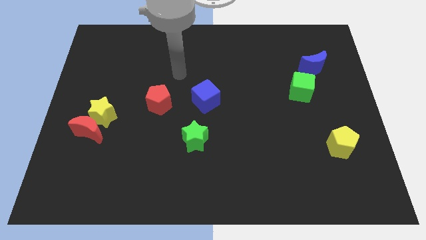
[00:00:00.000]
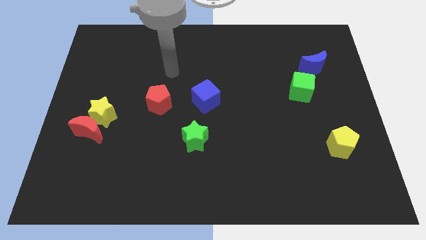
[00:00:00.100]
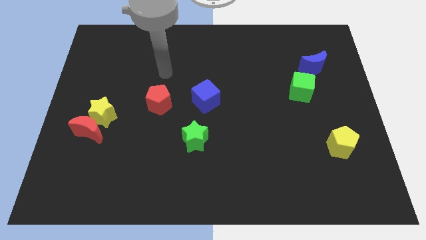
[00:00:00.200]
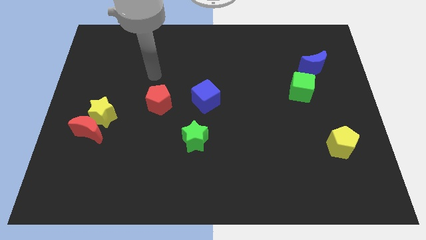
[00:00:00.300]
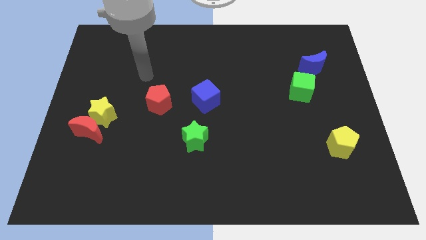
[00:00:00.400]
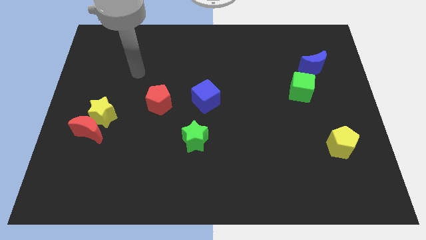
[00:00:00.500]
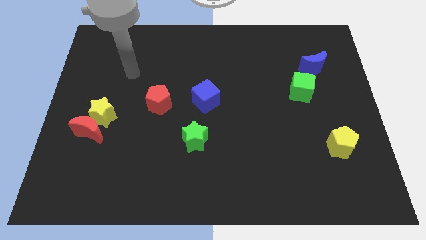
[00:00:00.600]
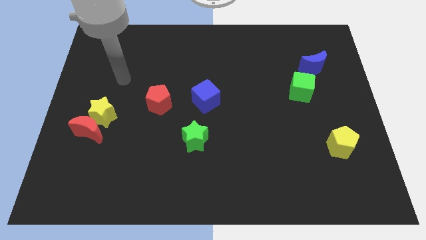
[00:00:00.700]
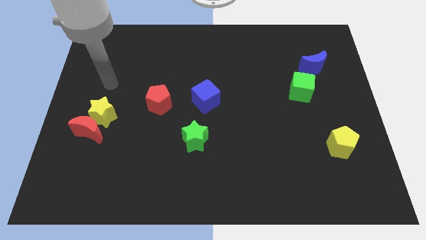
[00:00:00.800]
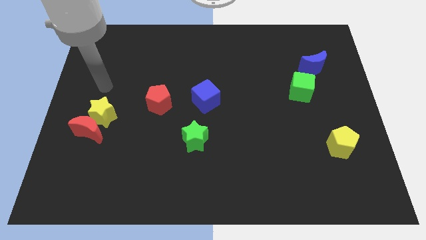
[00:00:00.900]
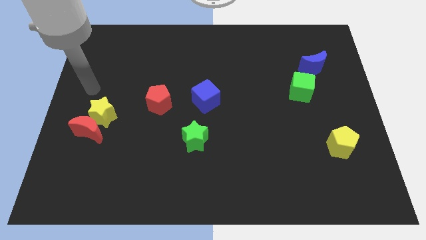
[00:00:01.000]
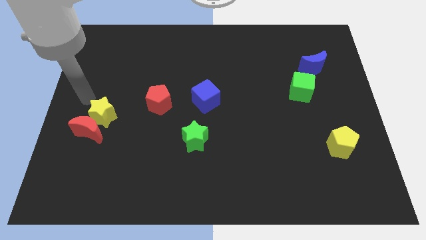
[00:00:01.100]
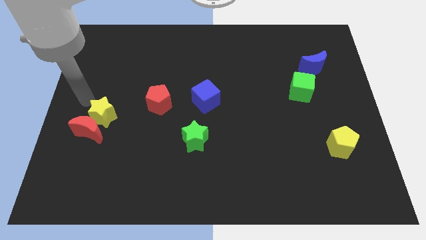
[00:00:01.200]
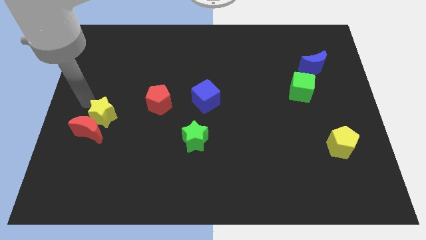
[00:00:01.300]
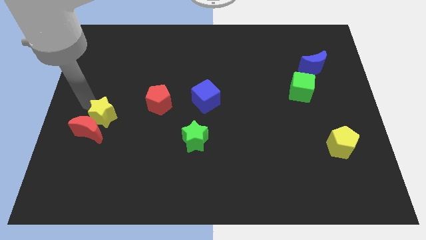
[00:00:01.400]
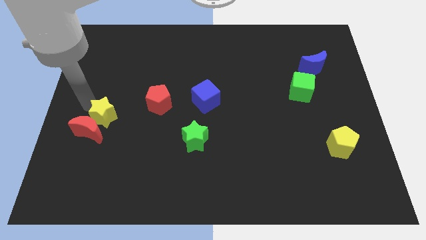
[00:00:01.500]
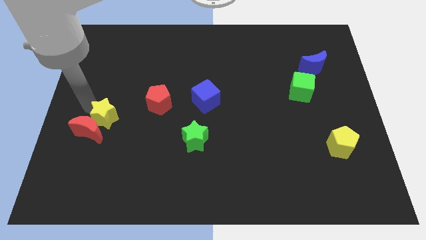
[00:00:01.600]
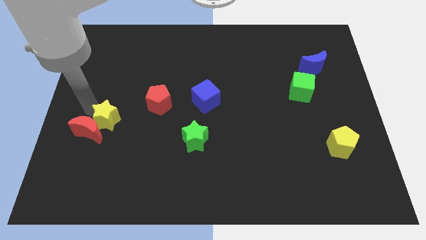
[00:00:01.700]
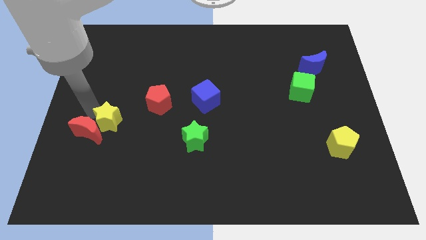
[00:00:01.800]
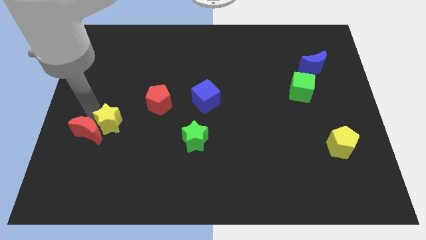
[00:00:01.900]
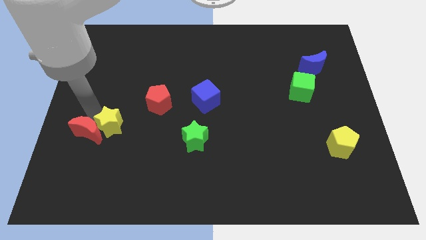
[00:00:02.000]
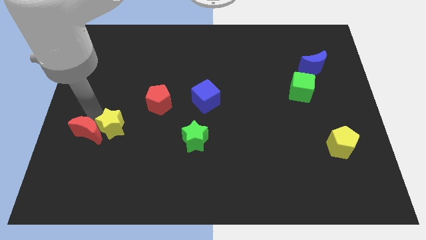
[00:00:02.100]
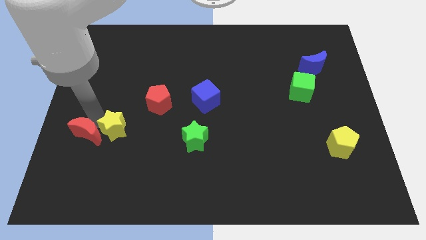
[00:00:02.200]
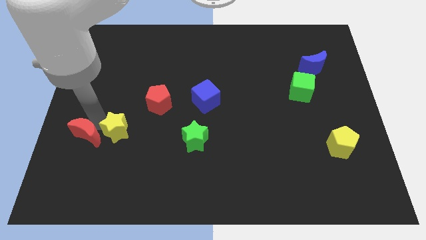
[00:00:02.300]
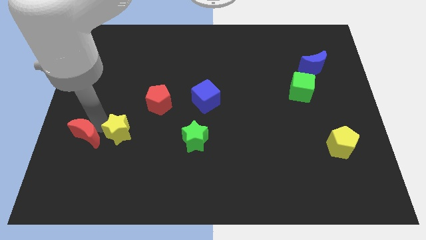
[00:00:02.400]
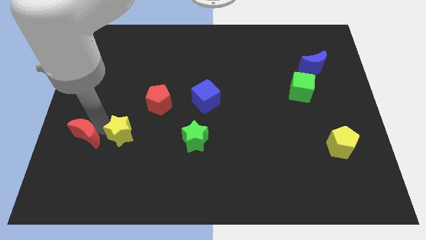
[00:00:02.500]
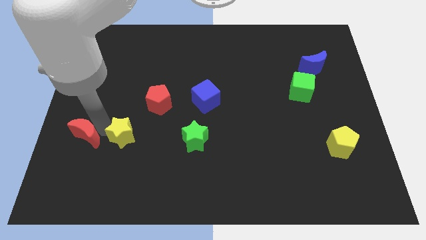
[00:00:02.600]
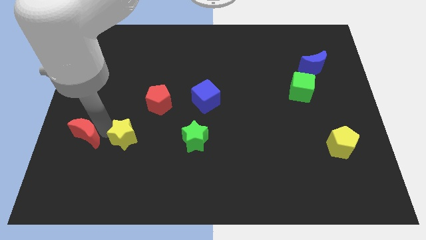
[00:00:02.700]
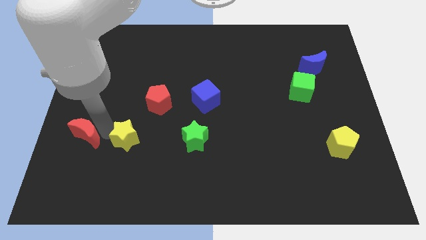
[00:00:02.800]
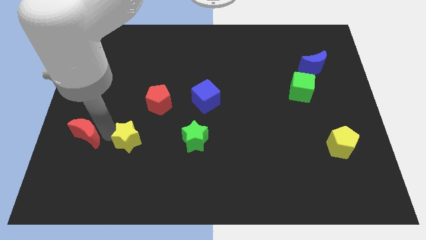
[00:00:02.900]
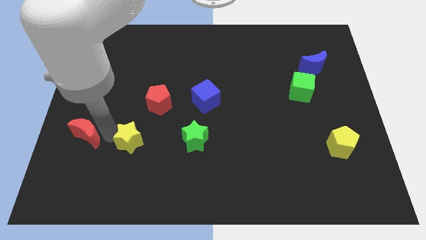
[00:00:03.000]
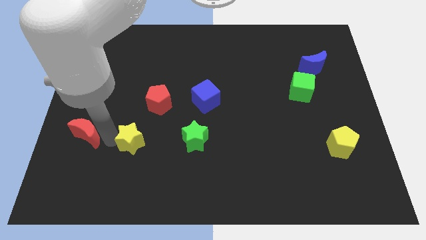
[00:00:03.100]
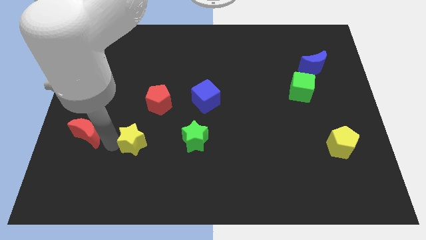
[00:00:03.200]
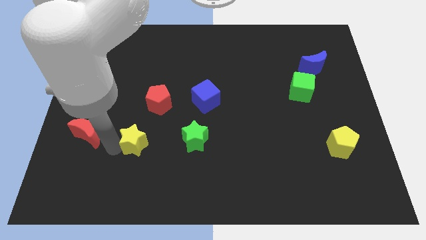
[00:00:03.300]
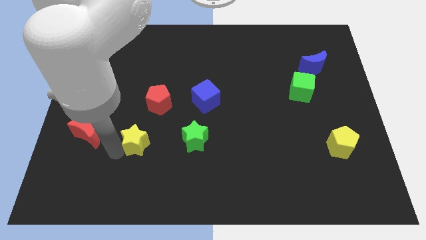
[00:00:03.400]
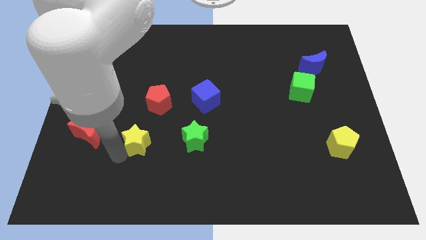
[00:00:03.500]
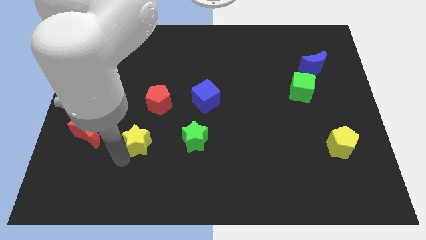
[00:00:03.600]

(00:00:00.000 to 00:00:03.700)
push the yellow star to the right slightly

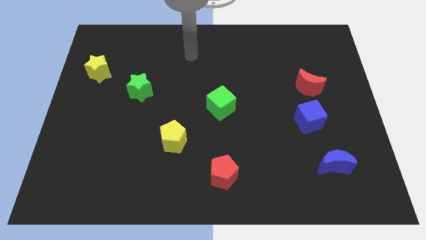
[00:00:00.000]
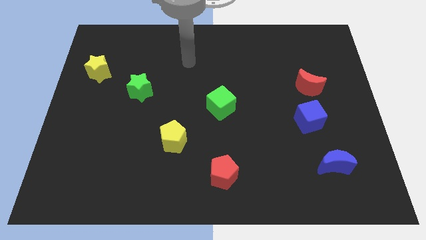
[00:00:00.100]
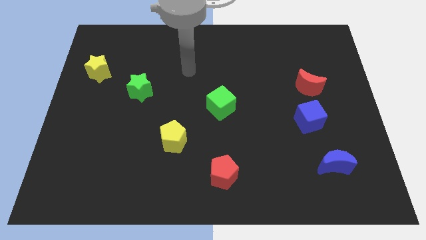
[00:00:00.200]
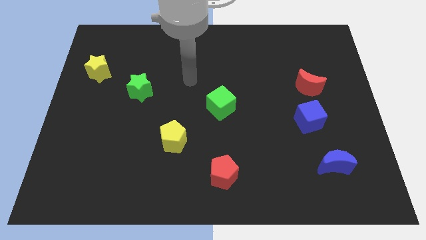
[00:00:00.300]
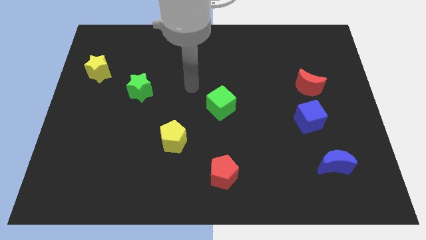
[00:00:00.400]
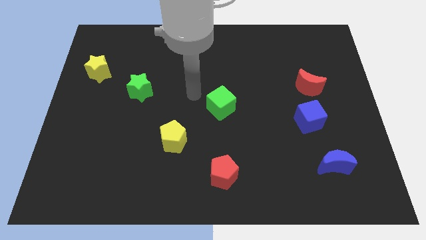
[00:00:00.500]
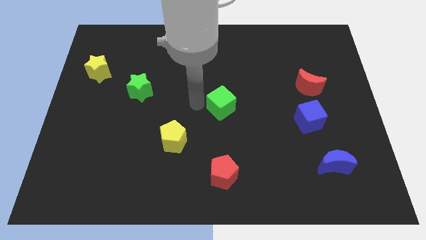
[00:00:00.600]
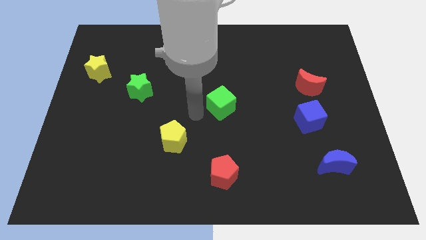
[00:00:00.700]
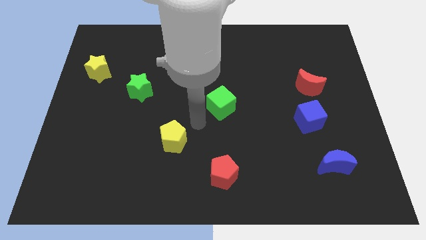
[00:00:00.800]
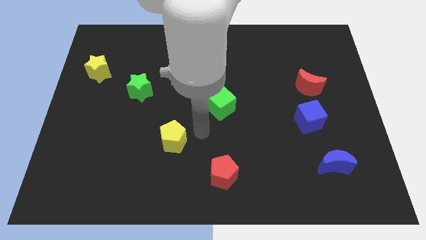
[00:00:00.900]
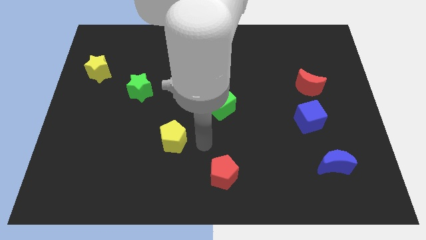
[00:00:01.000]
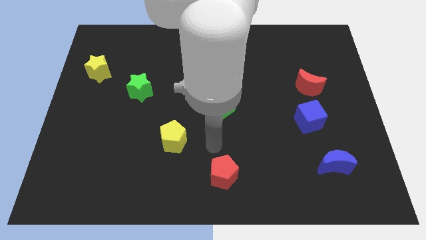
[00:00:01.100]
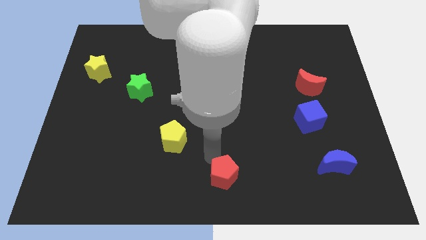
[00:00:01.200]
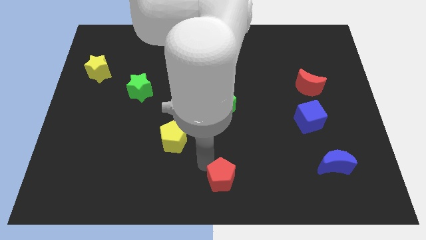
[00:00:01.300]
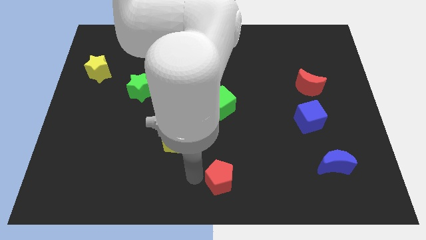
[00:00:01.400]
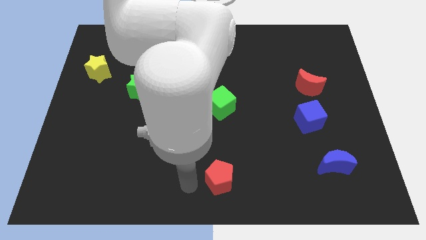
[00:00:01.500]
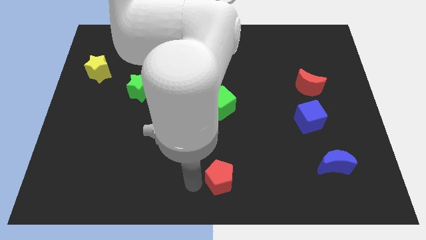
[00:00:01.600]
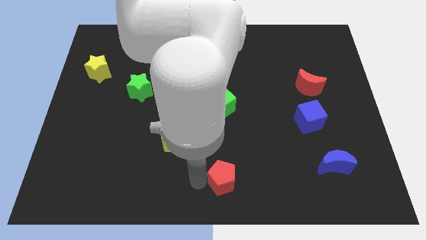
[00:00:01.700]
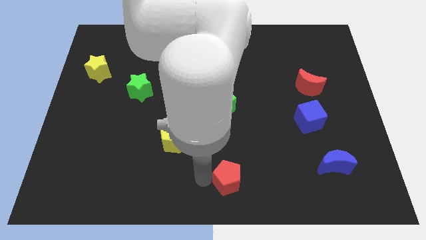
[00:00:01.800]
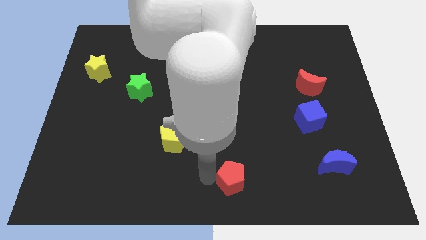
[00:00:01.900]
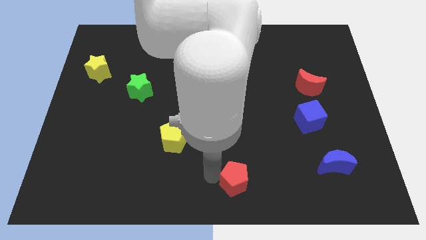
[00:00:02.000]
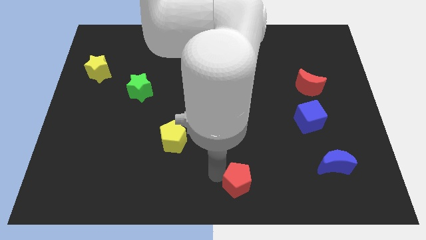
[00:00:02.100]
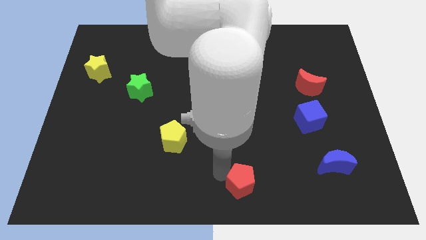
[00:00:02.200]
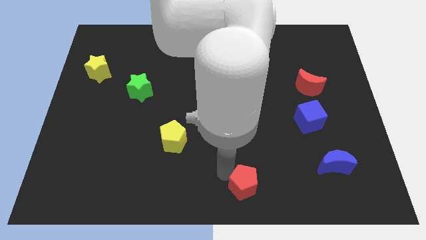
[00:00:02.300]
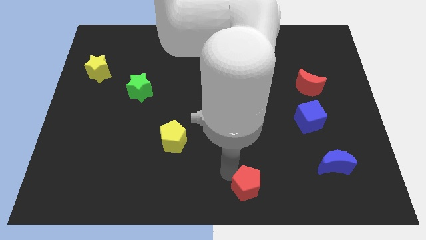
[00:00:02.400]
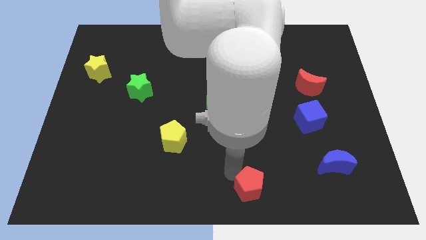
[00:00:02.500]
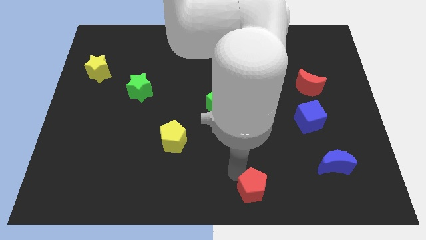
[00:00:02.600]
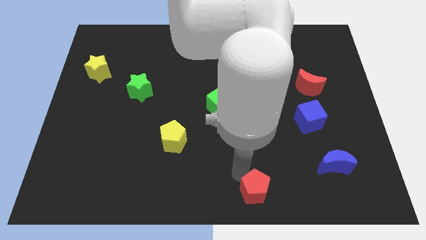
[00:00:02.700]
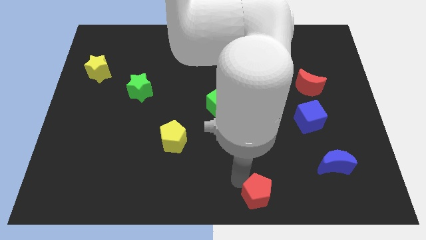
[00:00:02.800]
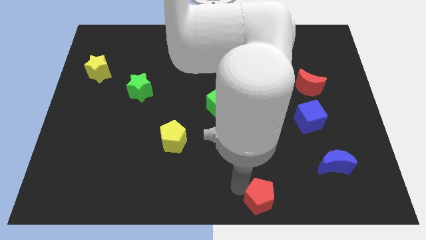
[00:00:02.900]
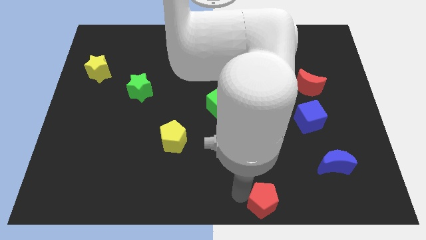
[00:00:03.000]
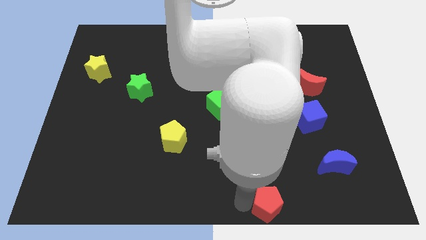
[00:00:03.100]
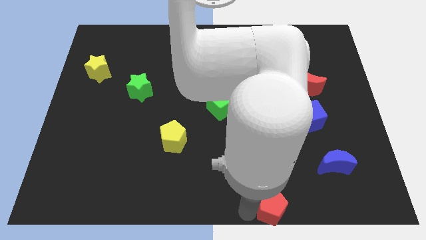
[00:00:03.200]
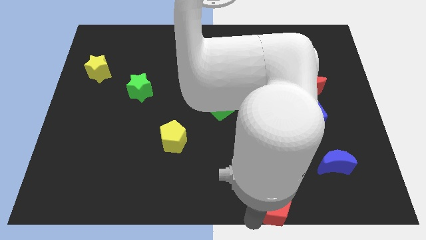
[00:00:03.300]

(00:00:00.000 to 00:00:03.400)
move the red pentagon a little bit to the right

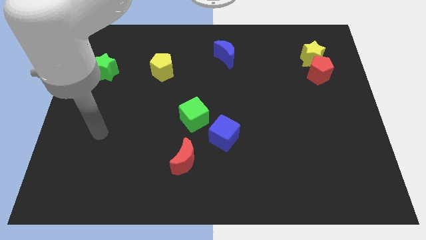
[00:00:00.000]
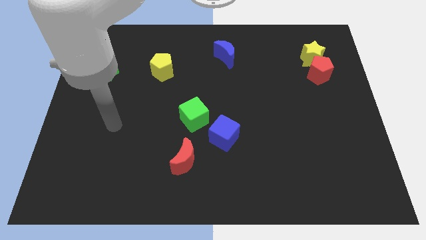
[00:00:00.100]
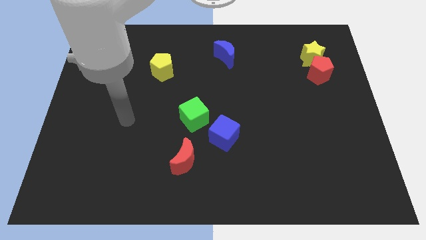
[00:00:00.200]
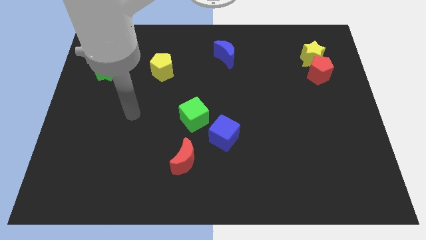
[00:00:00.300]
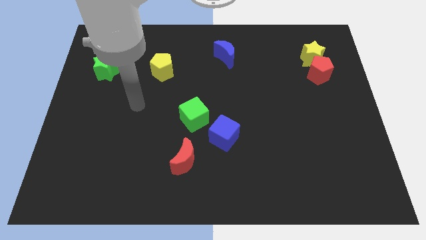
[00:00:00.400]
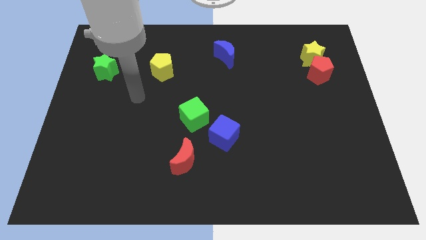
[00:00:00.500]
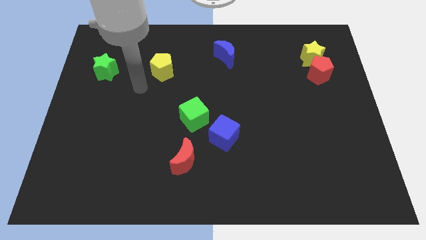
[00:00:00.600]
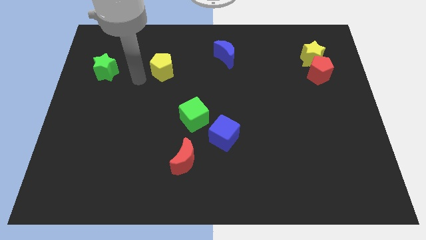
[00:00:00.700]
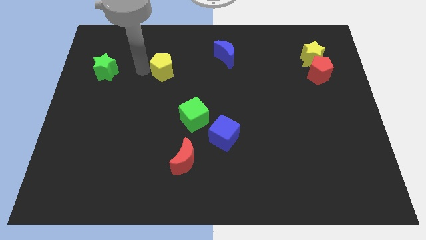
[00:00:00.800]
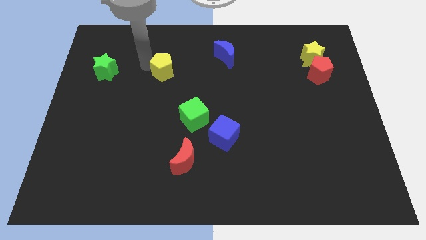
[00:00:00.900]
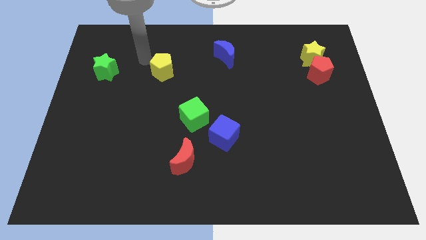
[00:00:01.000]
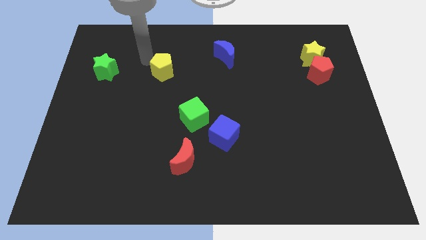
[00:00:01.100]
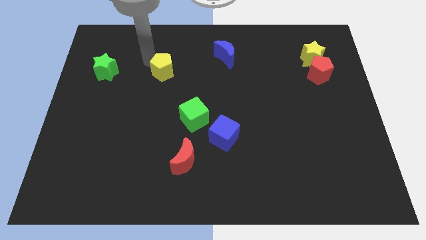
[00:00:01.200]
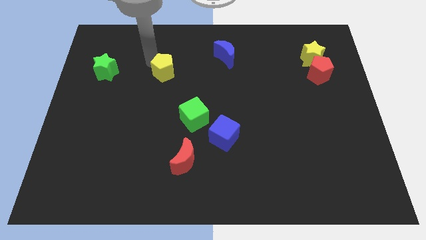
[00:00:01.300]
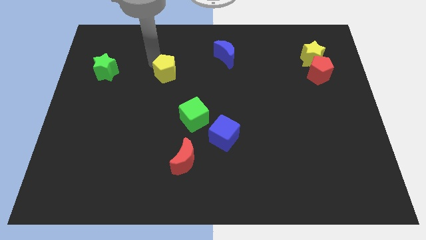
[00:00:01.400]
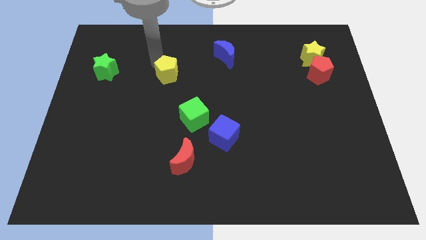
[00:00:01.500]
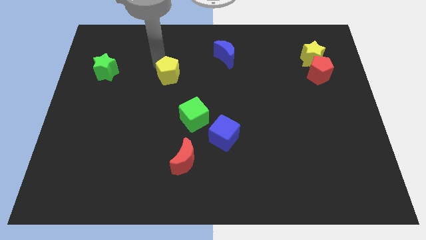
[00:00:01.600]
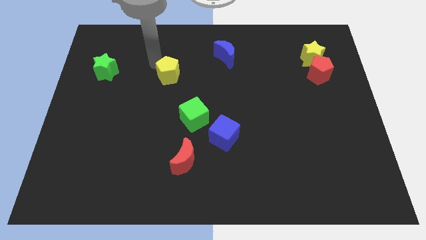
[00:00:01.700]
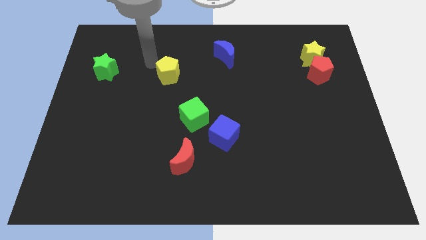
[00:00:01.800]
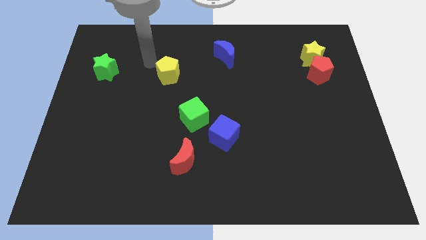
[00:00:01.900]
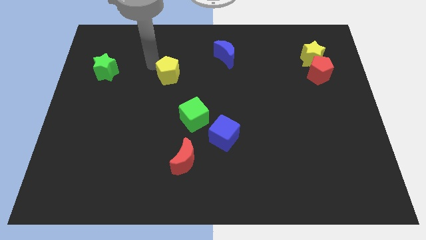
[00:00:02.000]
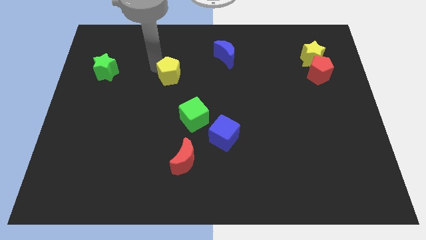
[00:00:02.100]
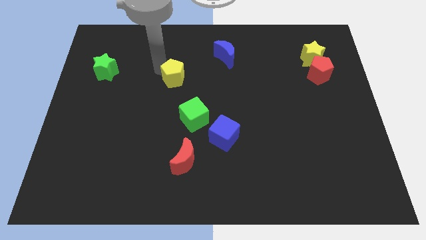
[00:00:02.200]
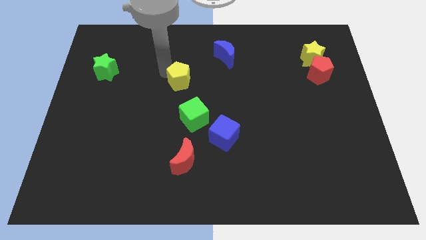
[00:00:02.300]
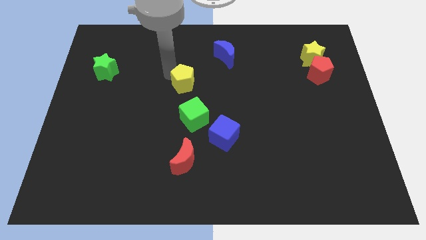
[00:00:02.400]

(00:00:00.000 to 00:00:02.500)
slightly move the yellow pentagon diagonally downwards and to the right
